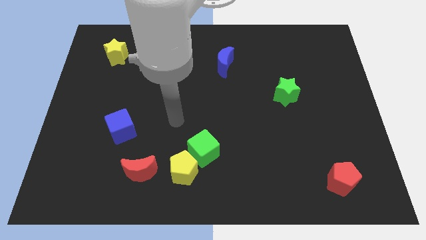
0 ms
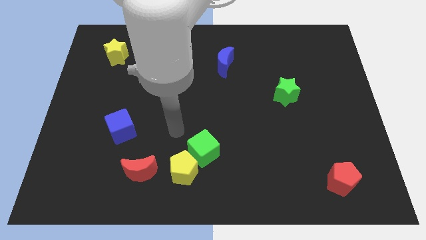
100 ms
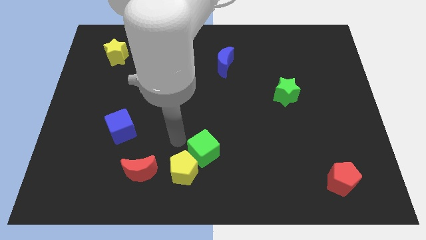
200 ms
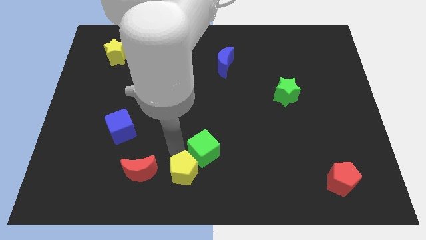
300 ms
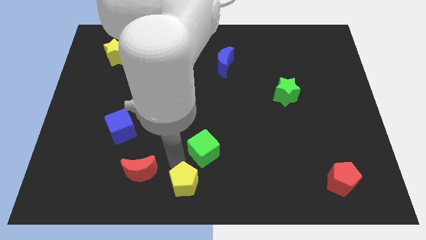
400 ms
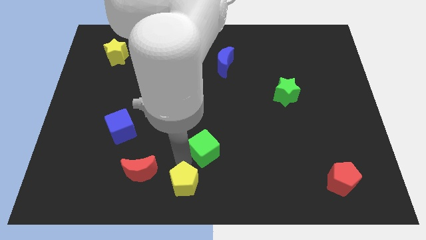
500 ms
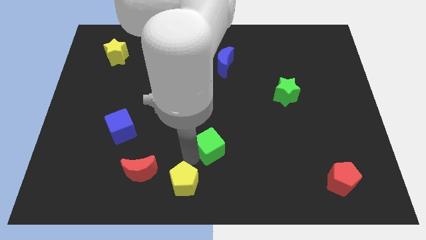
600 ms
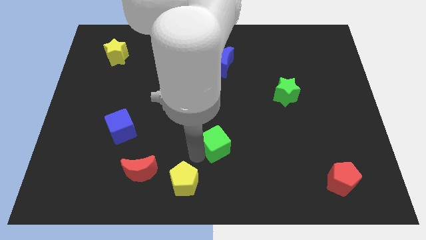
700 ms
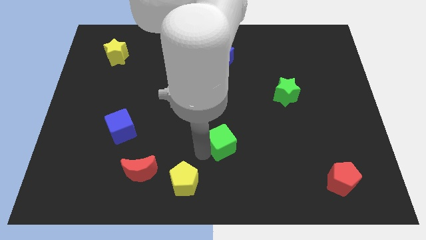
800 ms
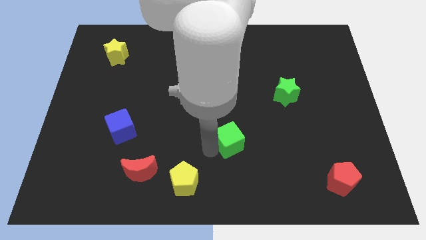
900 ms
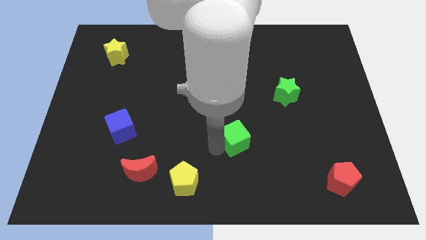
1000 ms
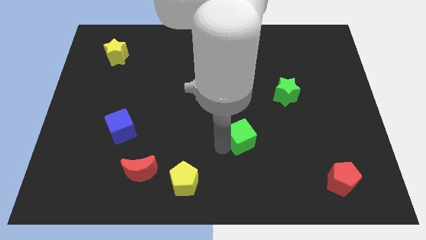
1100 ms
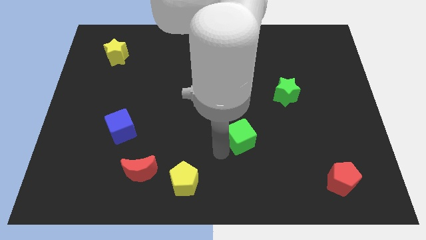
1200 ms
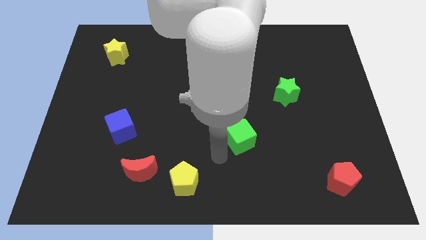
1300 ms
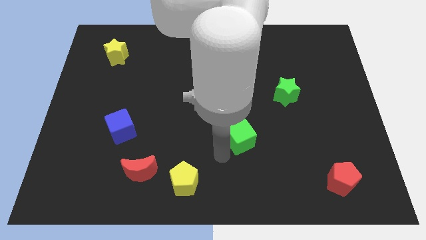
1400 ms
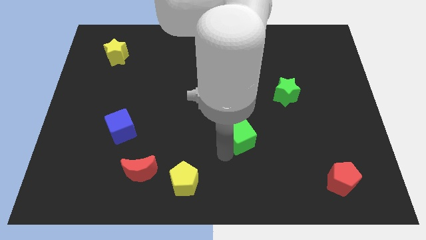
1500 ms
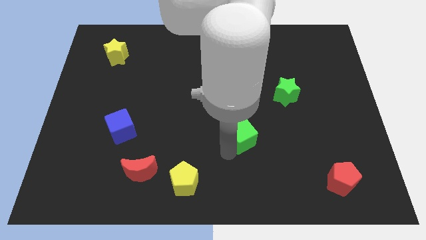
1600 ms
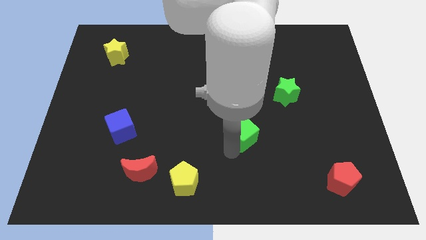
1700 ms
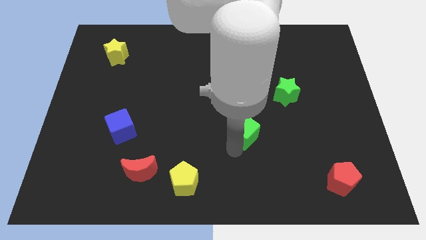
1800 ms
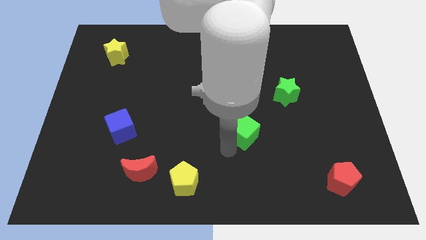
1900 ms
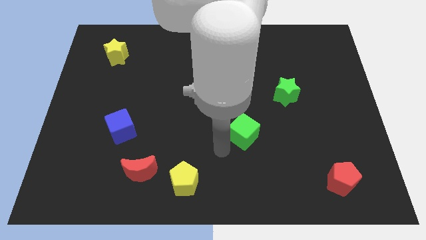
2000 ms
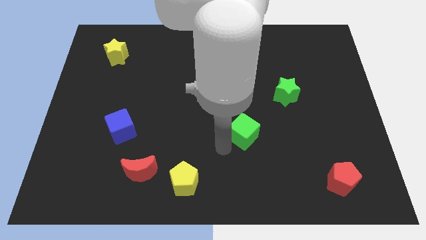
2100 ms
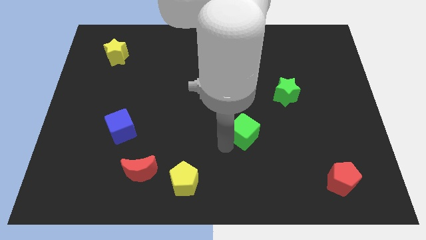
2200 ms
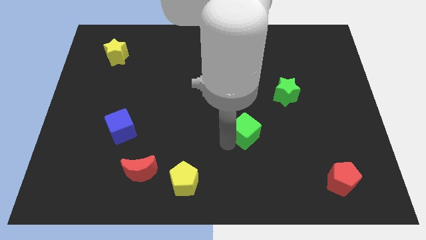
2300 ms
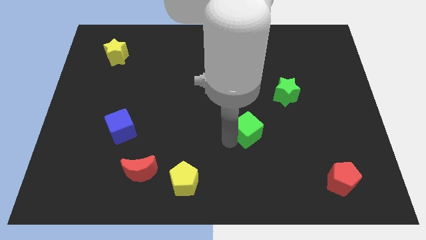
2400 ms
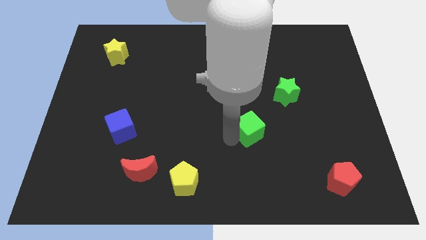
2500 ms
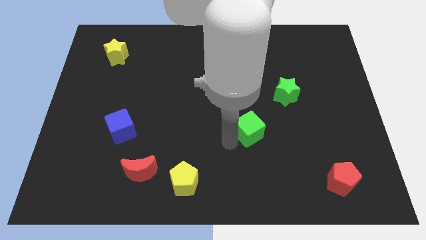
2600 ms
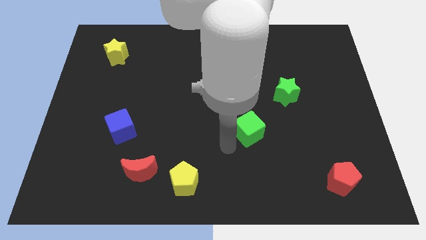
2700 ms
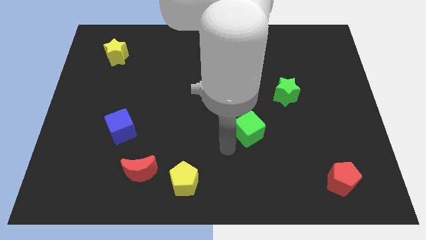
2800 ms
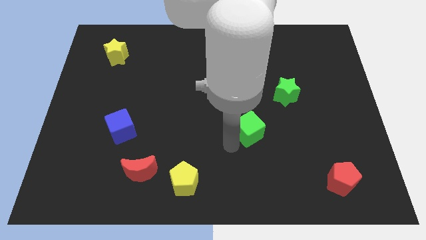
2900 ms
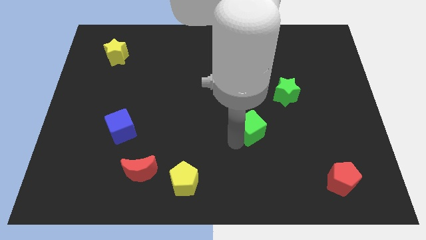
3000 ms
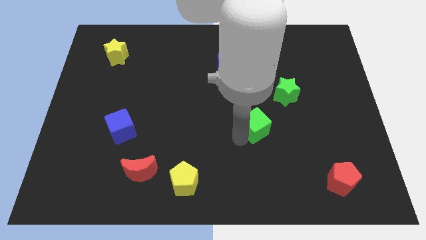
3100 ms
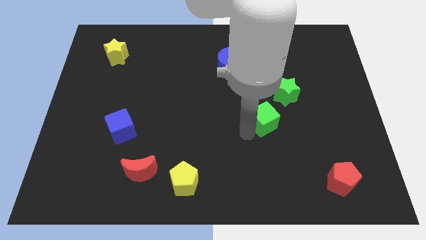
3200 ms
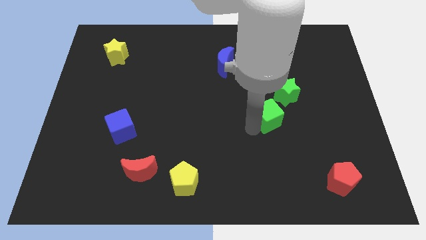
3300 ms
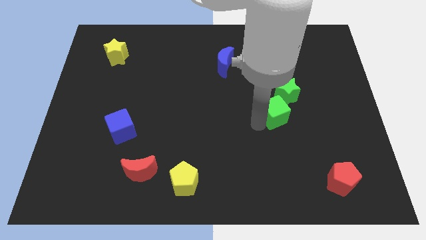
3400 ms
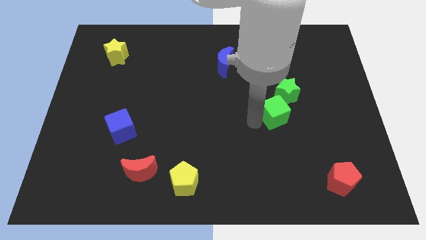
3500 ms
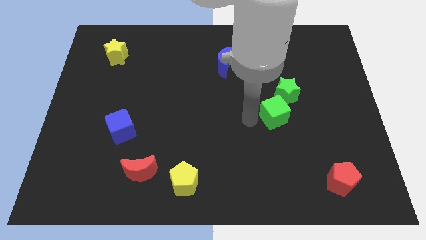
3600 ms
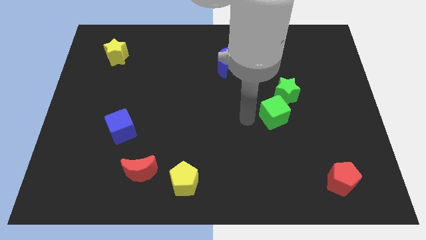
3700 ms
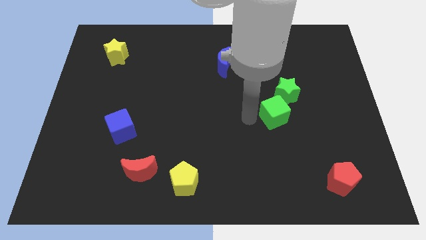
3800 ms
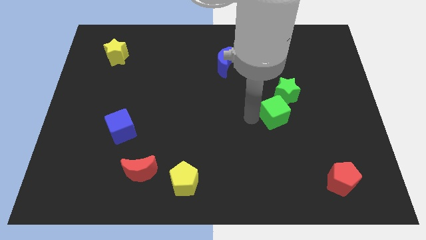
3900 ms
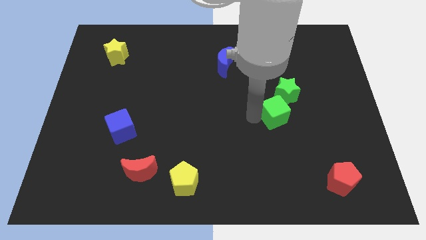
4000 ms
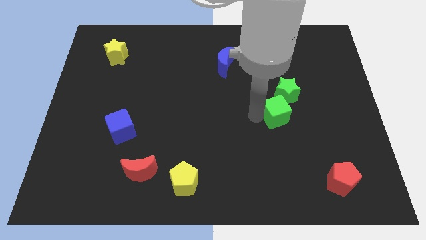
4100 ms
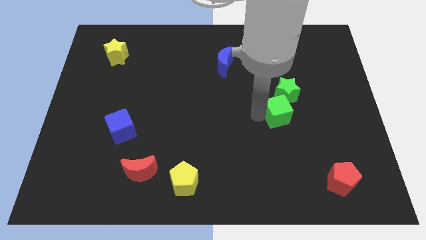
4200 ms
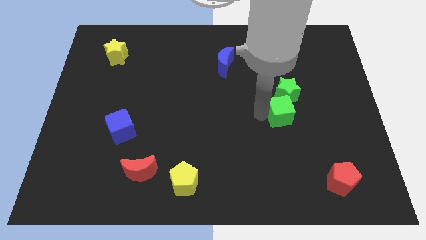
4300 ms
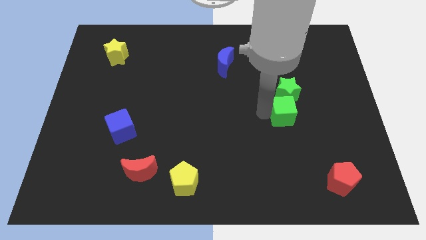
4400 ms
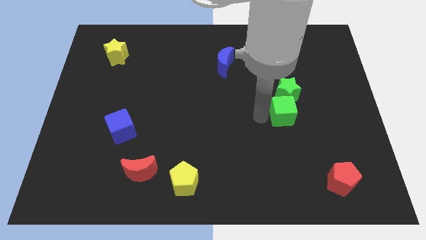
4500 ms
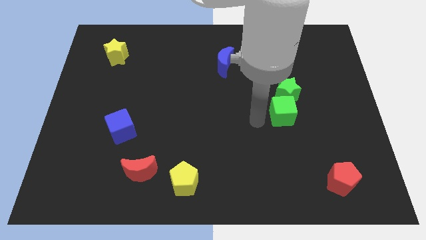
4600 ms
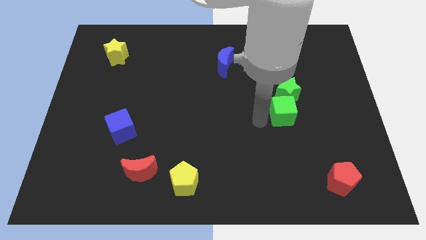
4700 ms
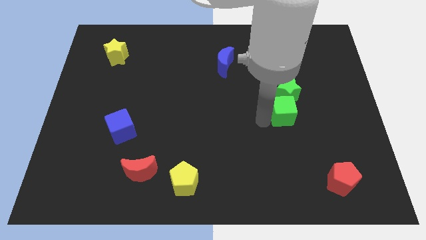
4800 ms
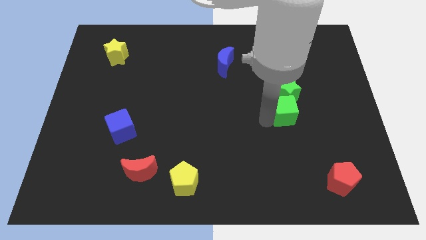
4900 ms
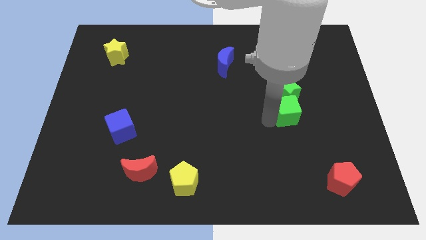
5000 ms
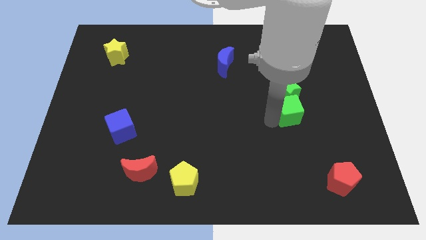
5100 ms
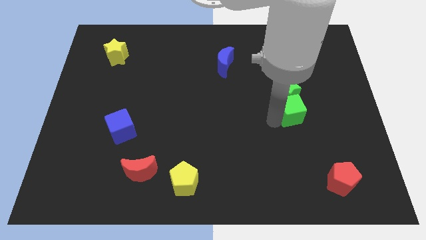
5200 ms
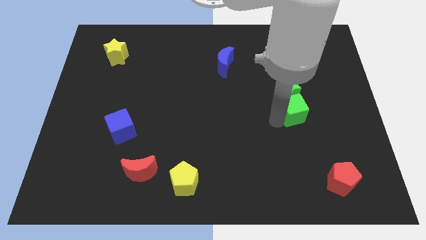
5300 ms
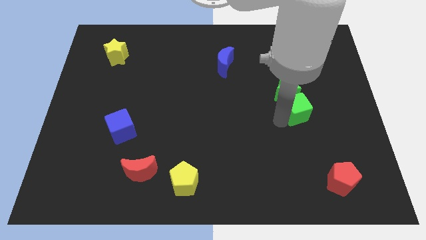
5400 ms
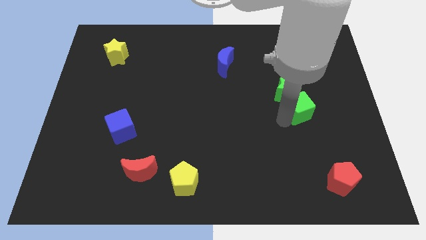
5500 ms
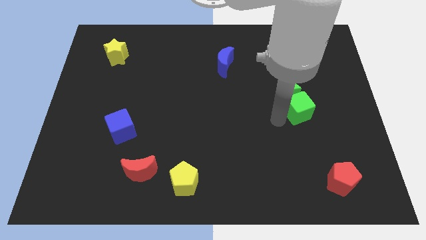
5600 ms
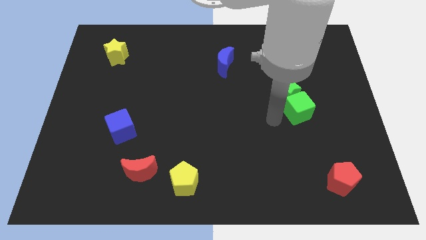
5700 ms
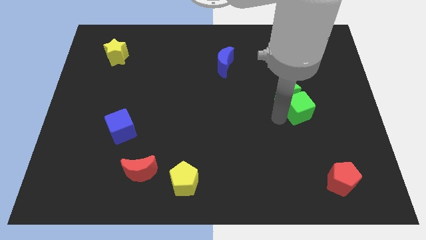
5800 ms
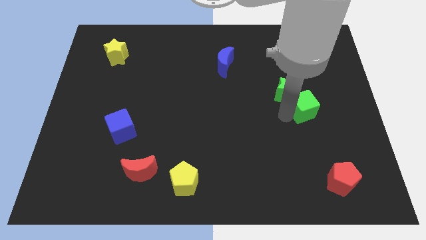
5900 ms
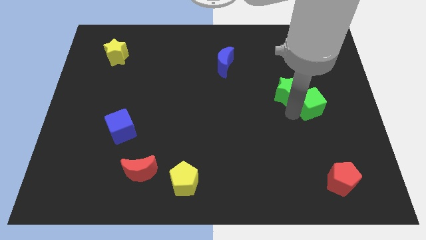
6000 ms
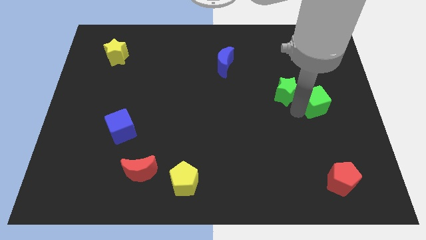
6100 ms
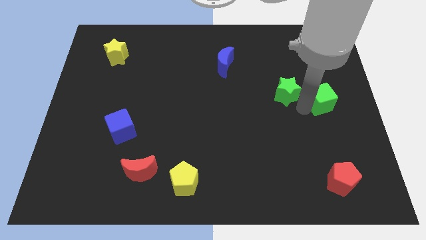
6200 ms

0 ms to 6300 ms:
move the green cube to the right side

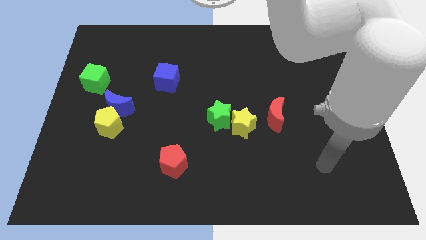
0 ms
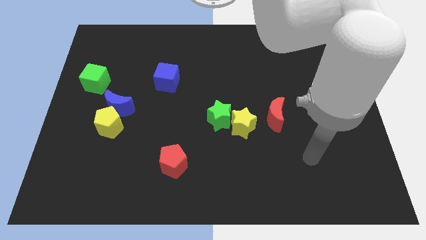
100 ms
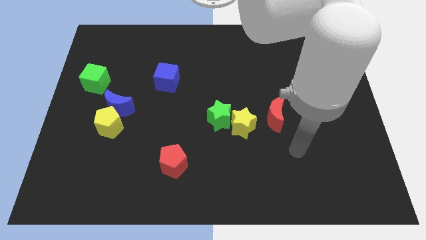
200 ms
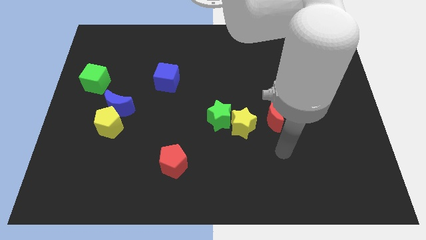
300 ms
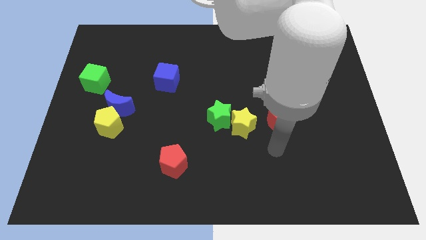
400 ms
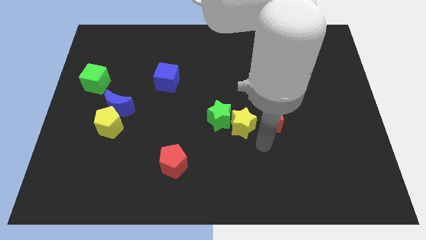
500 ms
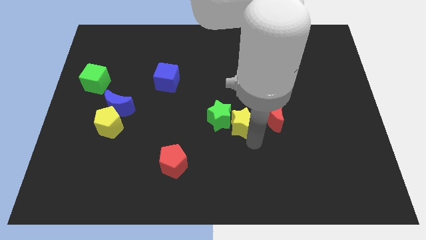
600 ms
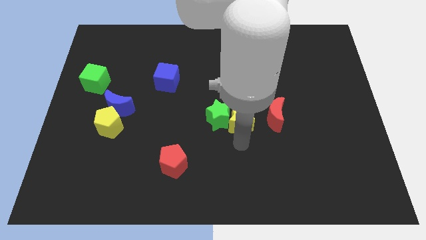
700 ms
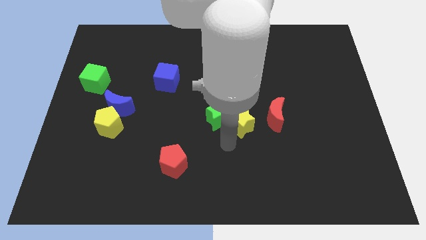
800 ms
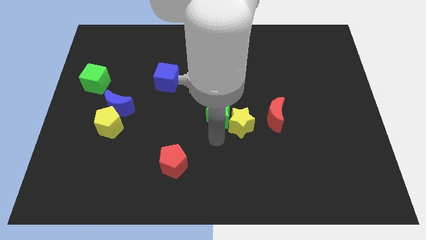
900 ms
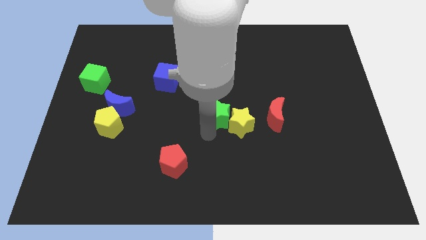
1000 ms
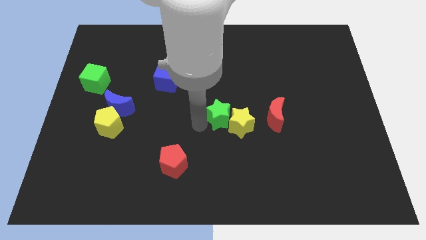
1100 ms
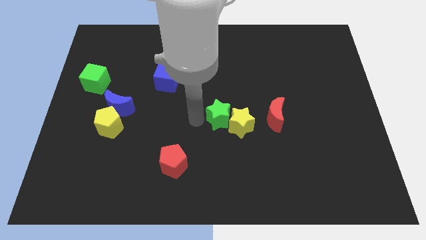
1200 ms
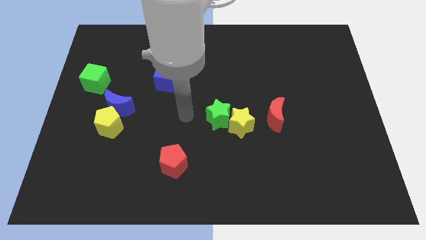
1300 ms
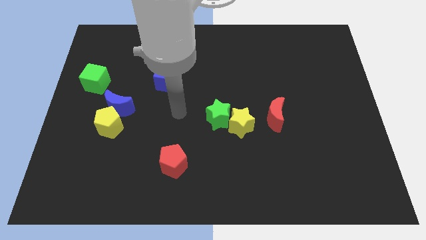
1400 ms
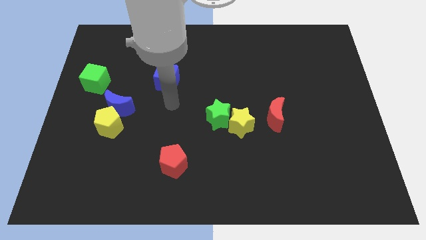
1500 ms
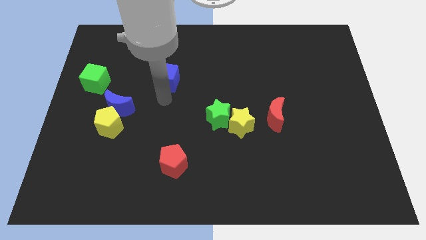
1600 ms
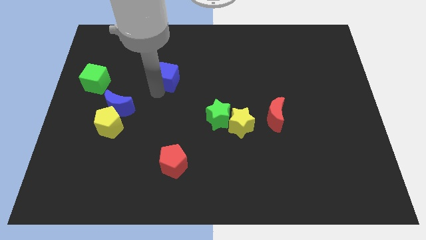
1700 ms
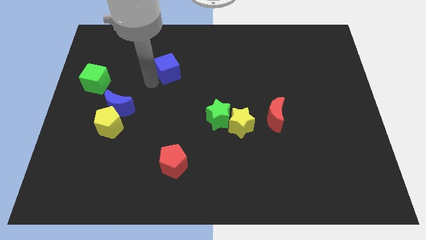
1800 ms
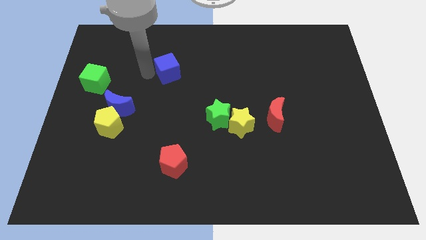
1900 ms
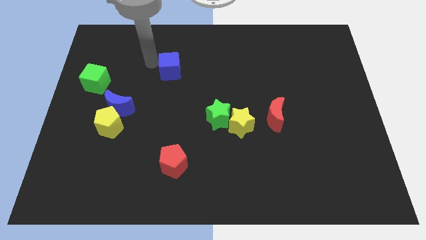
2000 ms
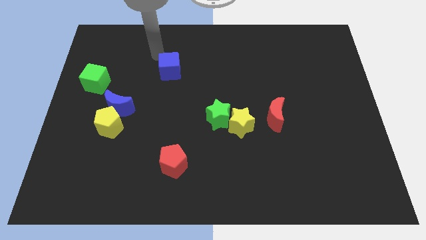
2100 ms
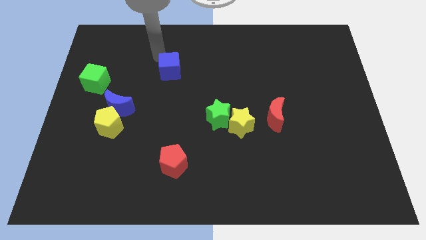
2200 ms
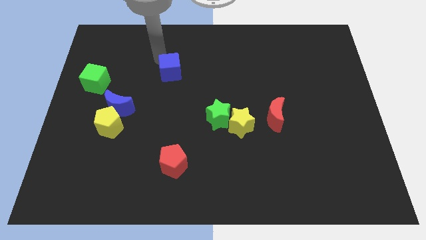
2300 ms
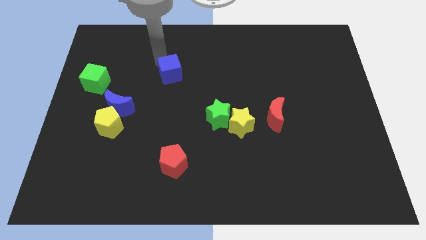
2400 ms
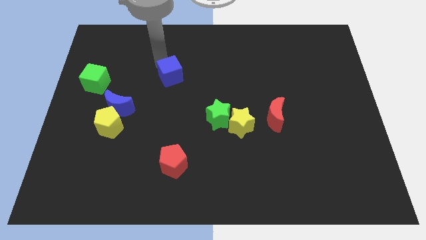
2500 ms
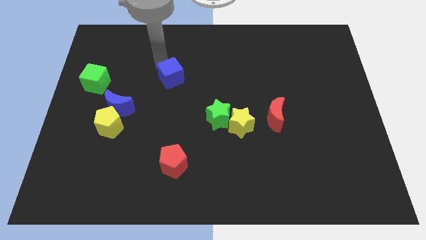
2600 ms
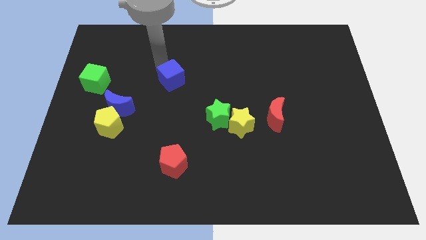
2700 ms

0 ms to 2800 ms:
push the blue cube to the center of the board
